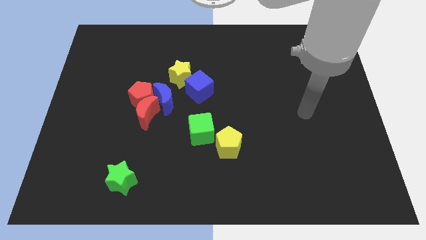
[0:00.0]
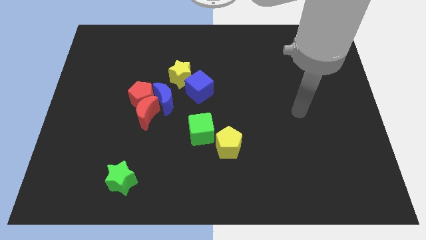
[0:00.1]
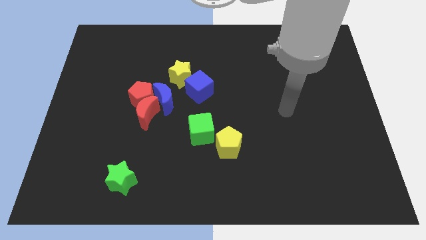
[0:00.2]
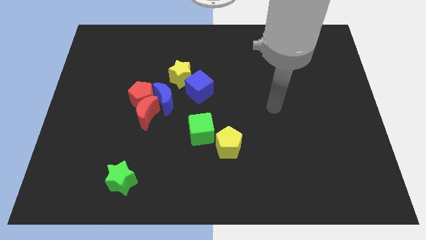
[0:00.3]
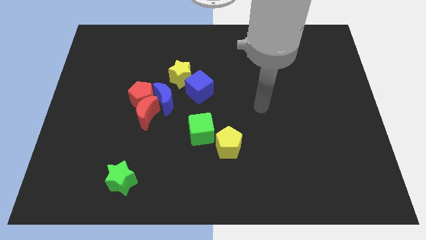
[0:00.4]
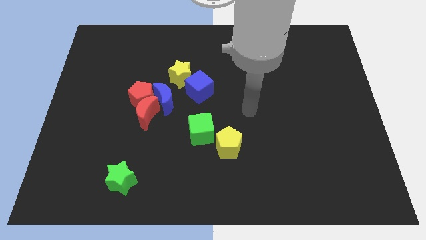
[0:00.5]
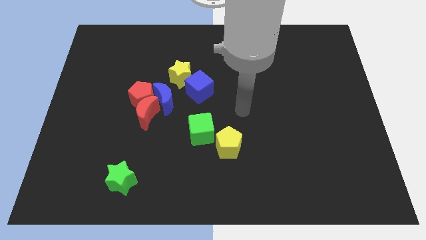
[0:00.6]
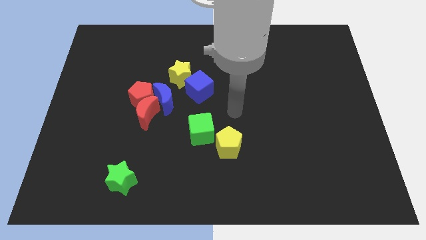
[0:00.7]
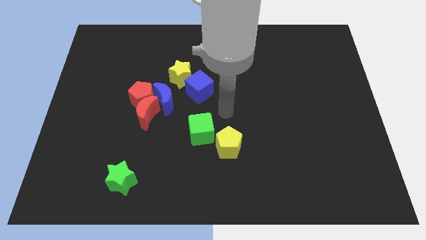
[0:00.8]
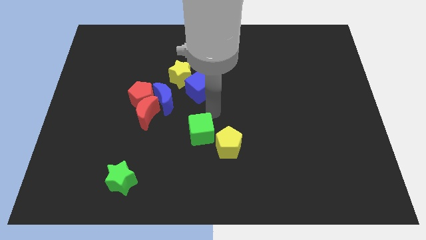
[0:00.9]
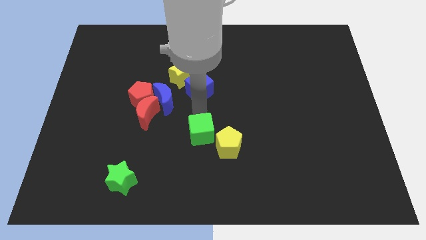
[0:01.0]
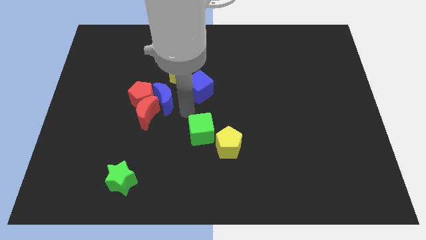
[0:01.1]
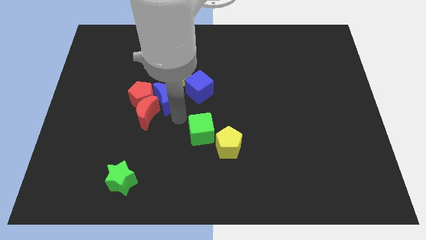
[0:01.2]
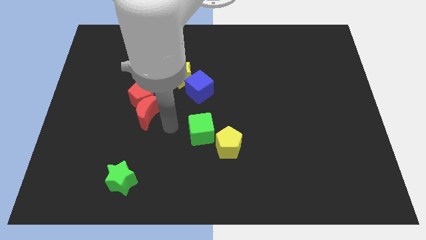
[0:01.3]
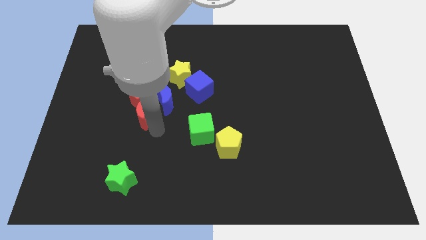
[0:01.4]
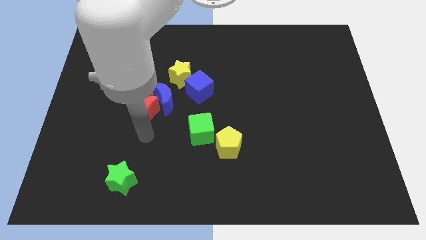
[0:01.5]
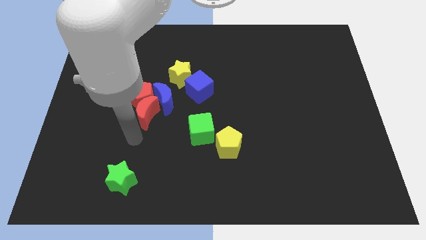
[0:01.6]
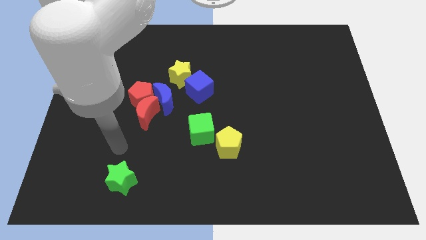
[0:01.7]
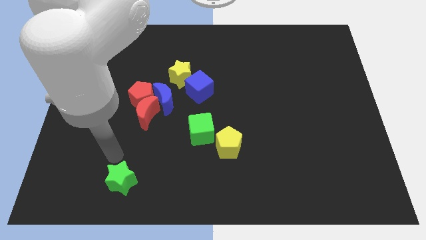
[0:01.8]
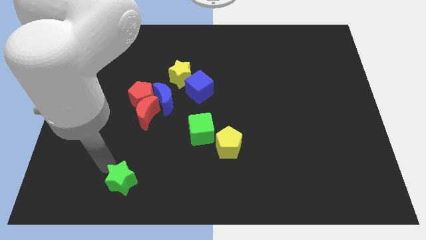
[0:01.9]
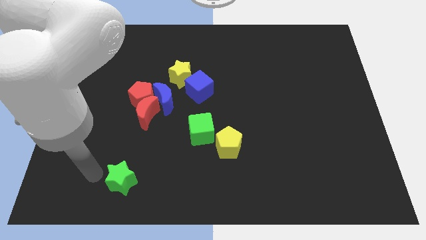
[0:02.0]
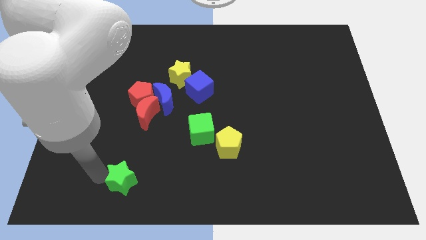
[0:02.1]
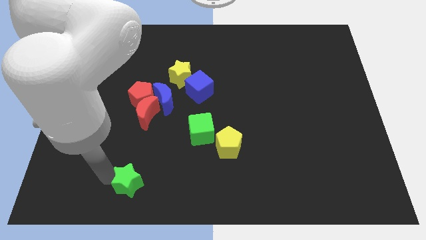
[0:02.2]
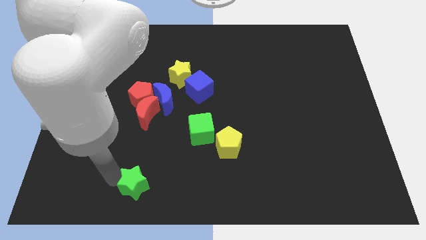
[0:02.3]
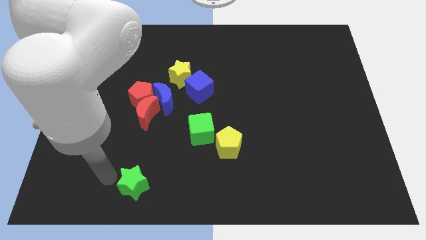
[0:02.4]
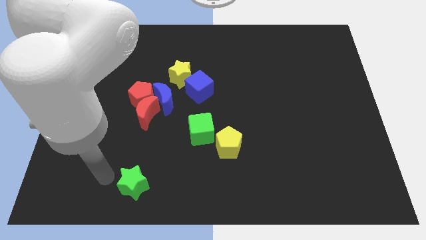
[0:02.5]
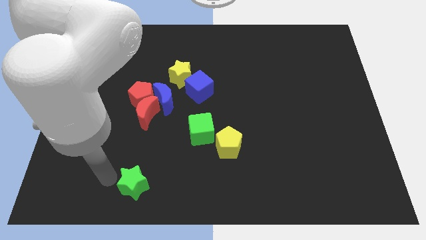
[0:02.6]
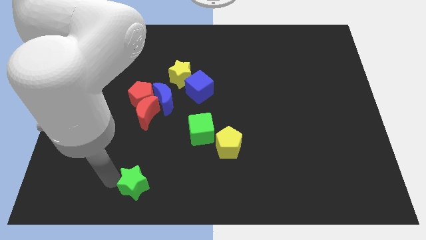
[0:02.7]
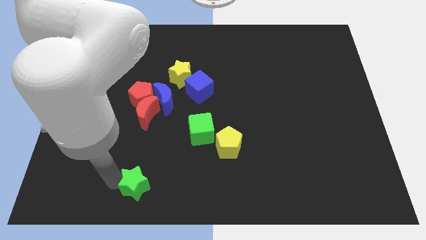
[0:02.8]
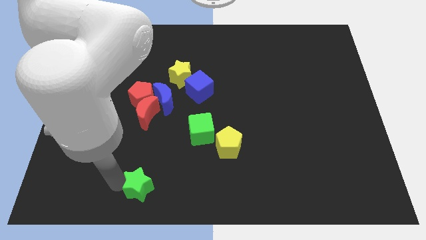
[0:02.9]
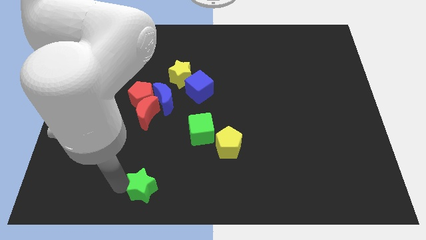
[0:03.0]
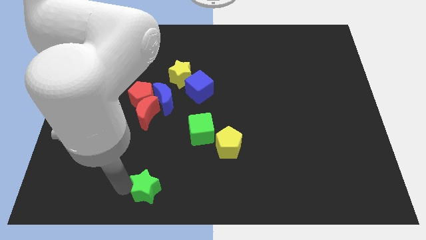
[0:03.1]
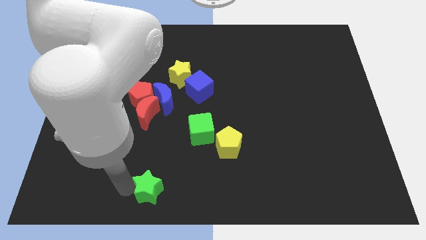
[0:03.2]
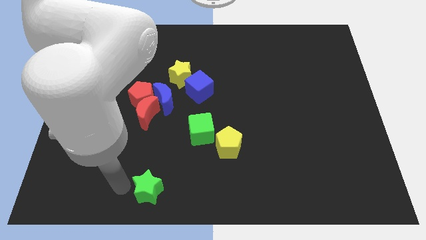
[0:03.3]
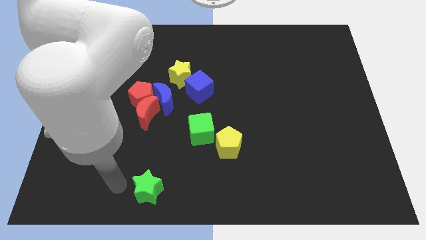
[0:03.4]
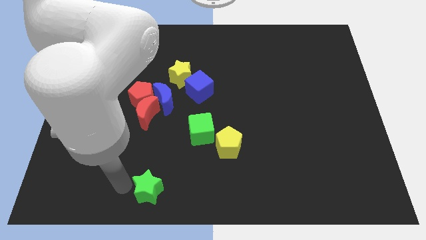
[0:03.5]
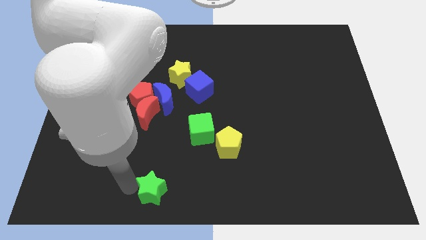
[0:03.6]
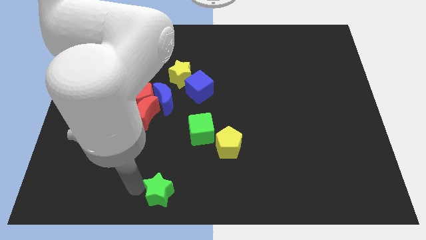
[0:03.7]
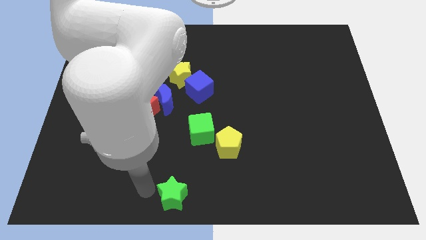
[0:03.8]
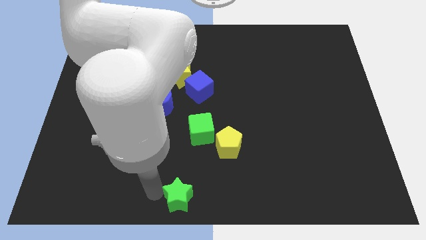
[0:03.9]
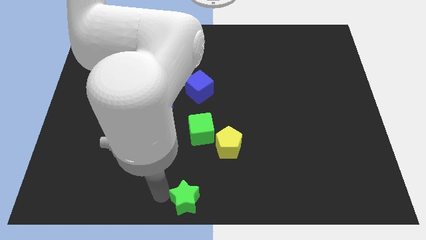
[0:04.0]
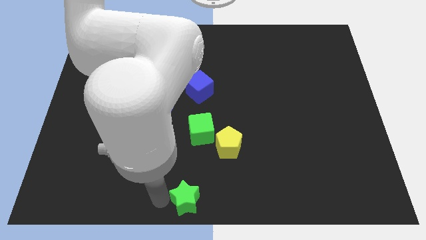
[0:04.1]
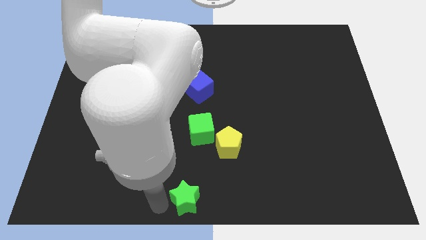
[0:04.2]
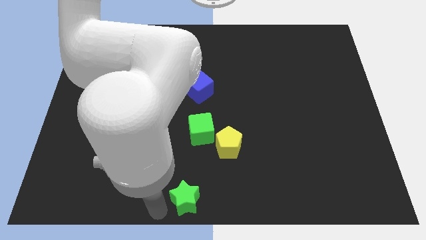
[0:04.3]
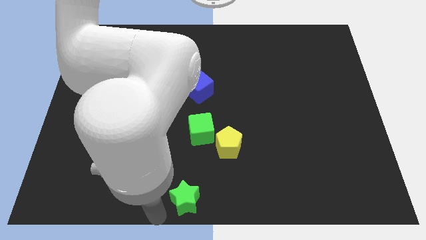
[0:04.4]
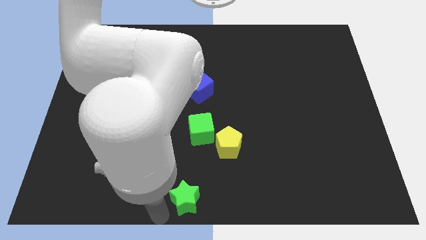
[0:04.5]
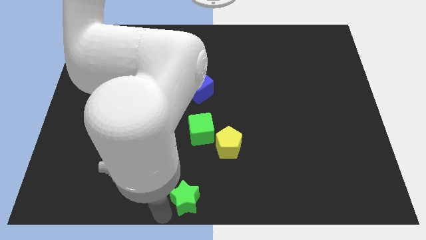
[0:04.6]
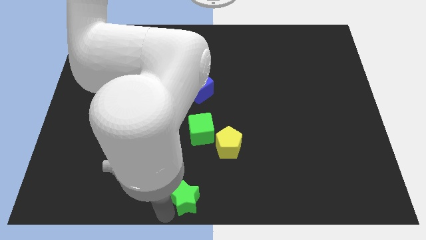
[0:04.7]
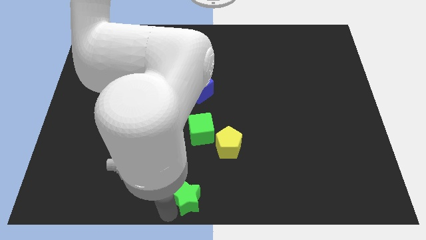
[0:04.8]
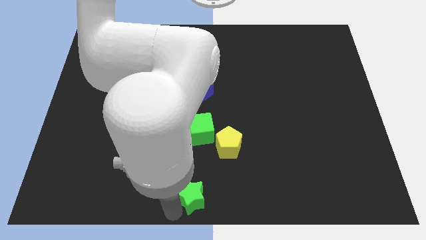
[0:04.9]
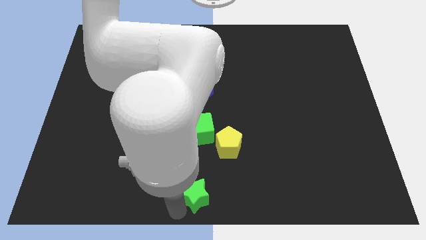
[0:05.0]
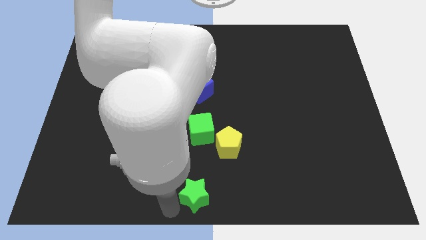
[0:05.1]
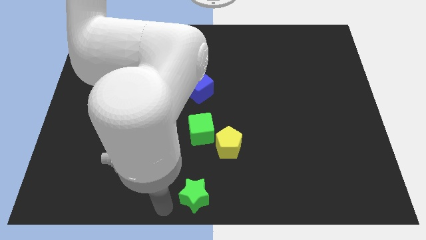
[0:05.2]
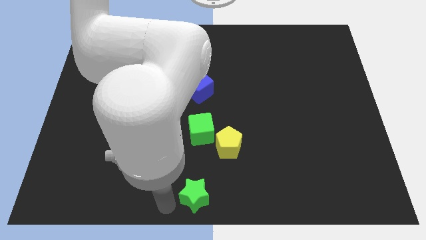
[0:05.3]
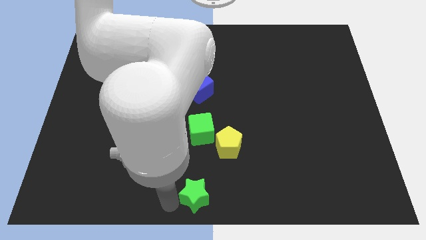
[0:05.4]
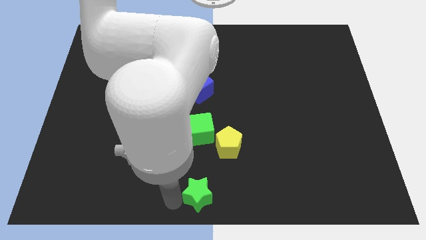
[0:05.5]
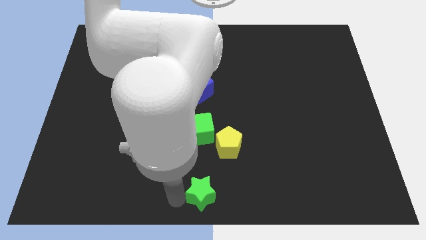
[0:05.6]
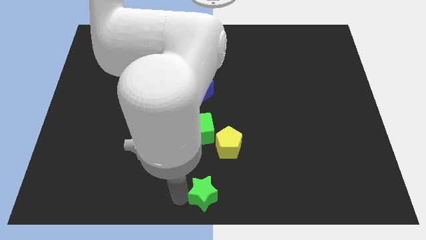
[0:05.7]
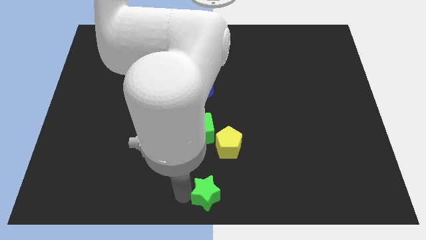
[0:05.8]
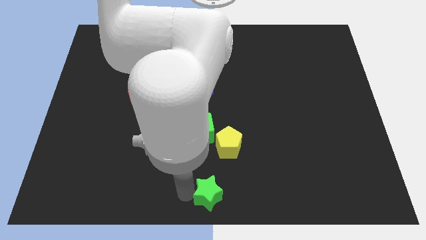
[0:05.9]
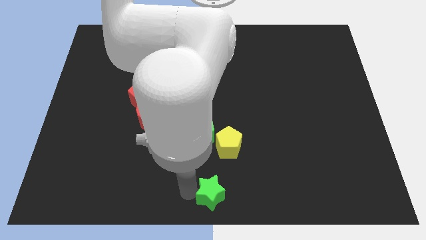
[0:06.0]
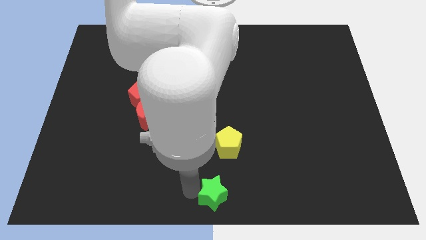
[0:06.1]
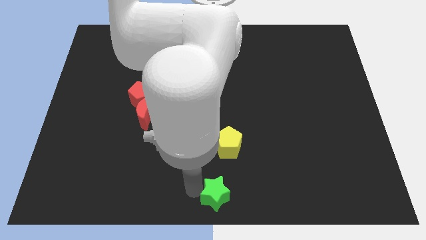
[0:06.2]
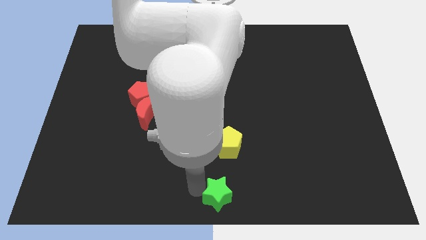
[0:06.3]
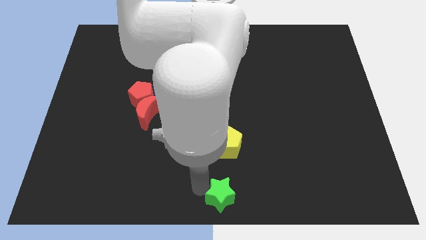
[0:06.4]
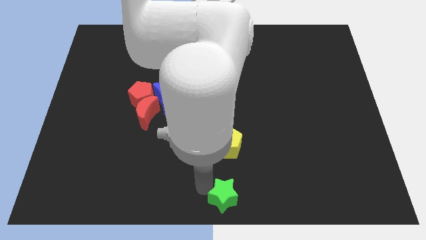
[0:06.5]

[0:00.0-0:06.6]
move the green star right

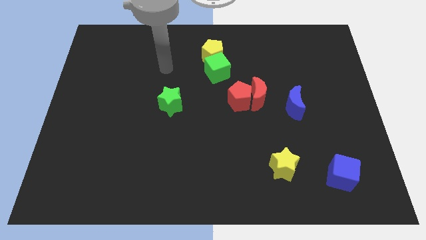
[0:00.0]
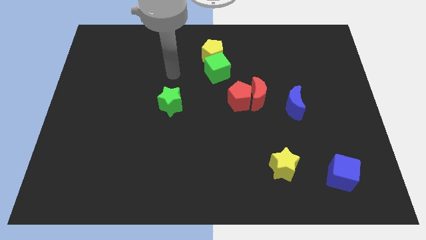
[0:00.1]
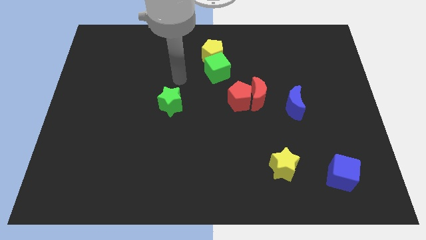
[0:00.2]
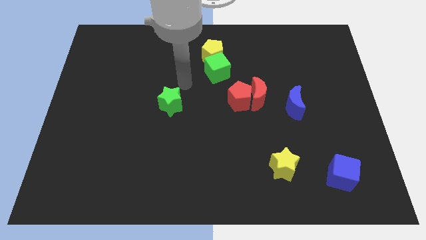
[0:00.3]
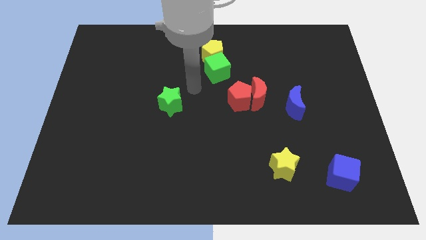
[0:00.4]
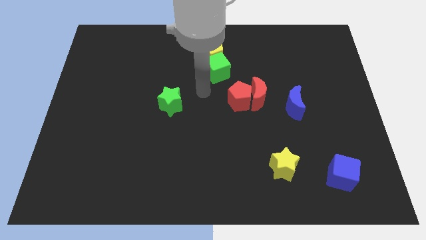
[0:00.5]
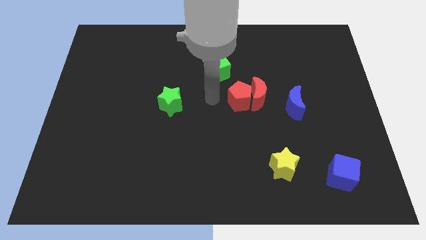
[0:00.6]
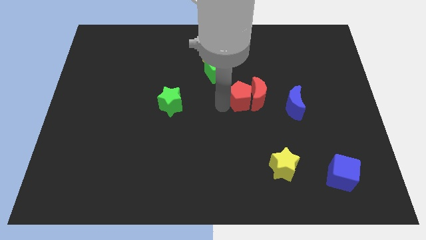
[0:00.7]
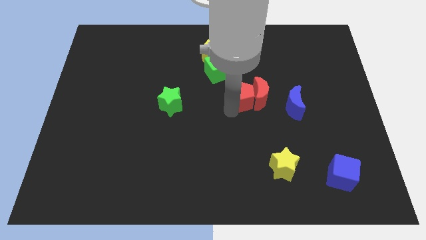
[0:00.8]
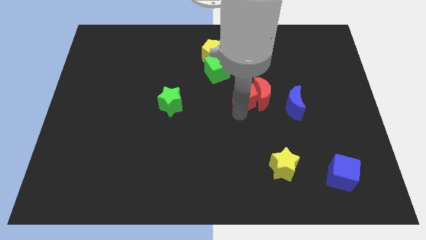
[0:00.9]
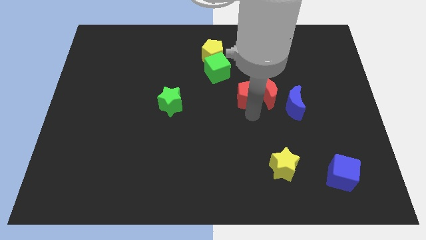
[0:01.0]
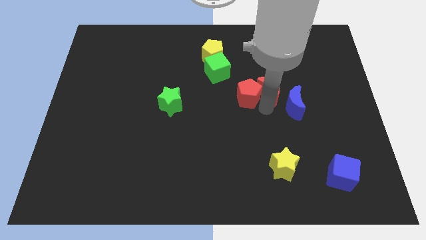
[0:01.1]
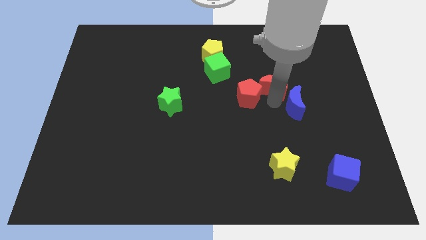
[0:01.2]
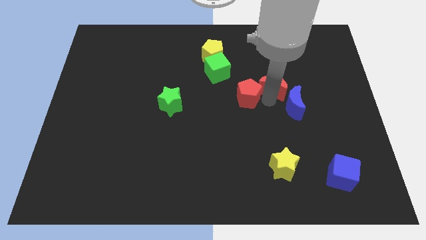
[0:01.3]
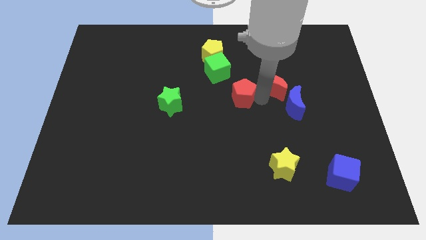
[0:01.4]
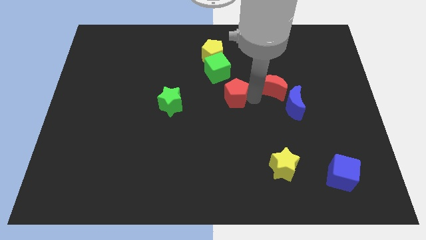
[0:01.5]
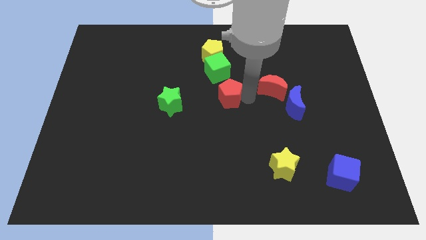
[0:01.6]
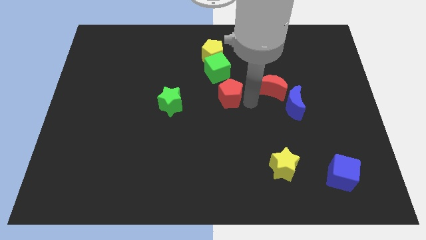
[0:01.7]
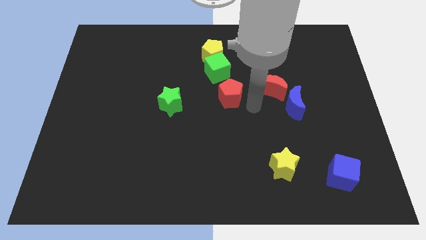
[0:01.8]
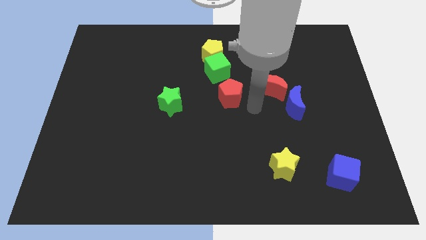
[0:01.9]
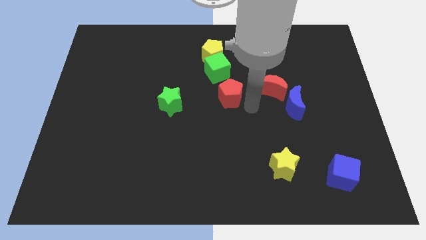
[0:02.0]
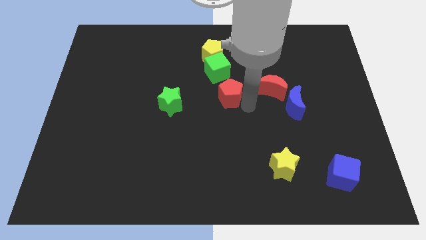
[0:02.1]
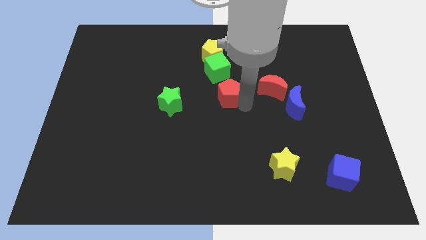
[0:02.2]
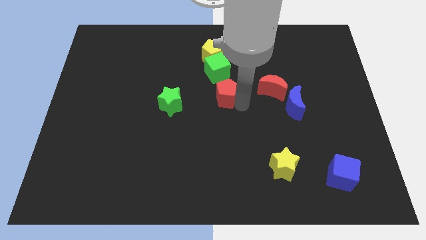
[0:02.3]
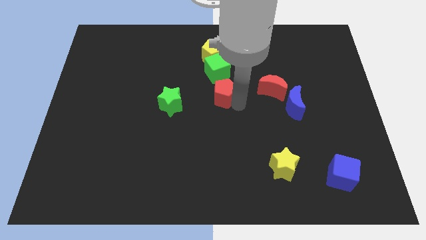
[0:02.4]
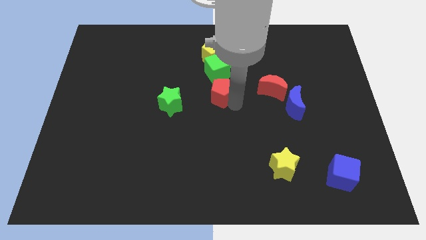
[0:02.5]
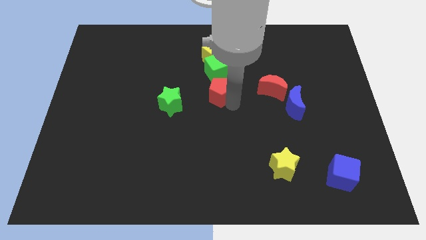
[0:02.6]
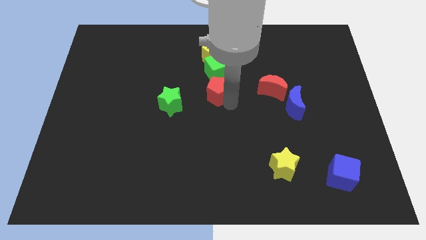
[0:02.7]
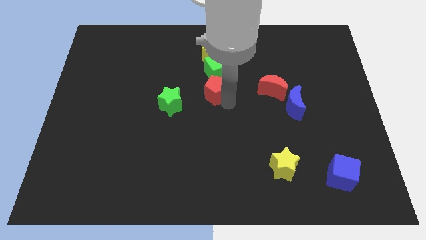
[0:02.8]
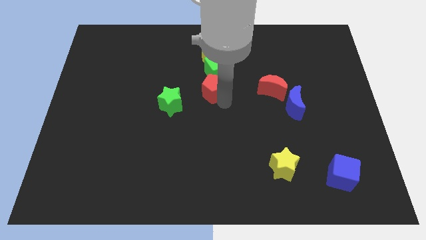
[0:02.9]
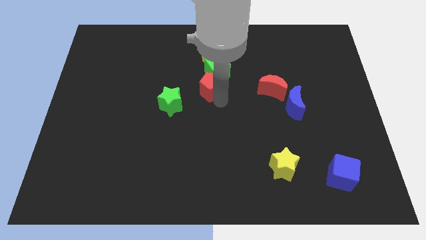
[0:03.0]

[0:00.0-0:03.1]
move the red pentagon a little upwards and to the left diagonally
